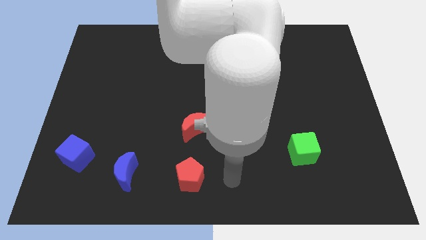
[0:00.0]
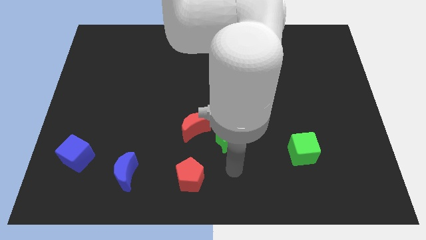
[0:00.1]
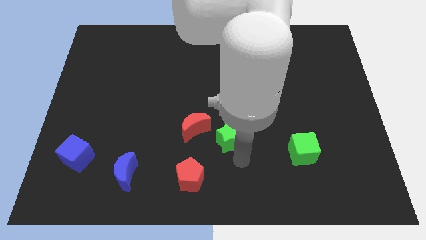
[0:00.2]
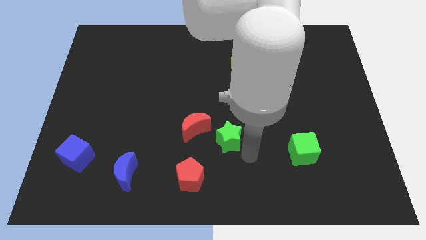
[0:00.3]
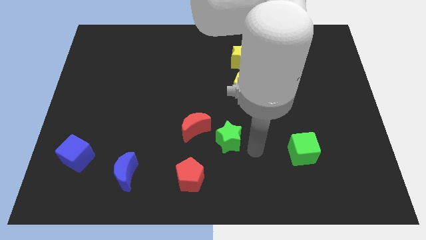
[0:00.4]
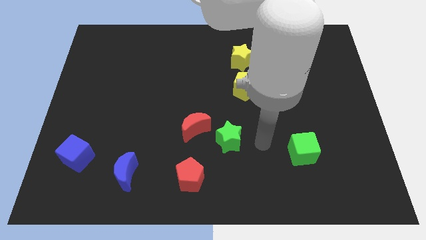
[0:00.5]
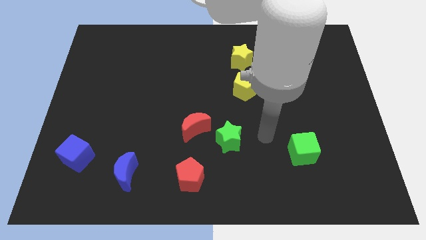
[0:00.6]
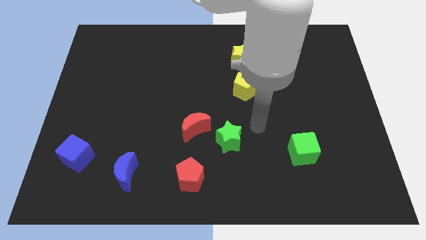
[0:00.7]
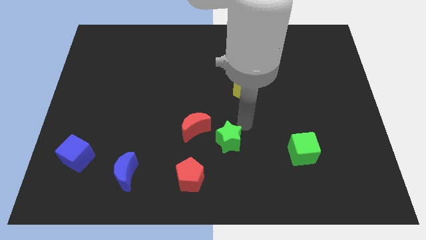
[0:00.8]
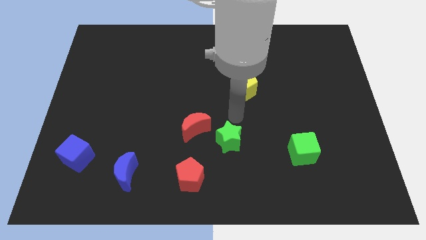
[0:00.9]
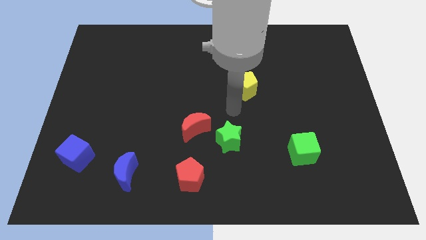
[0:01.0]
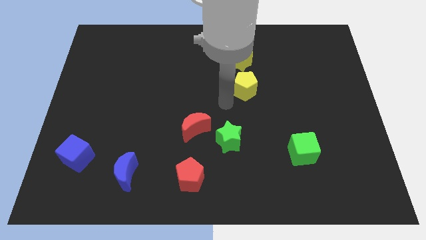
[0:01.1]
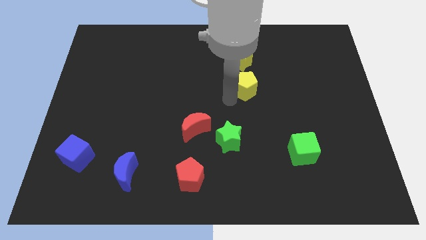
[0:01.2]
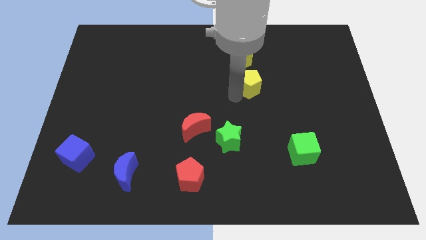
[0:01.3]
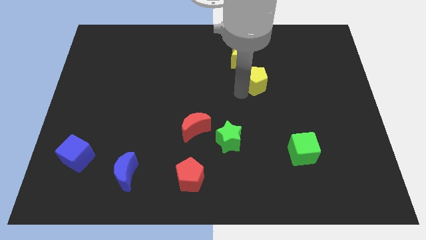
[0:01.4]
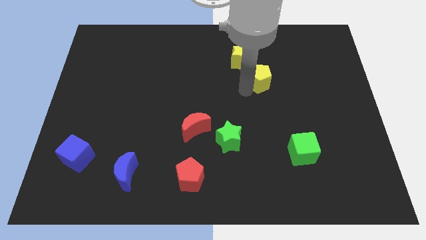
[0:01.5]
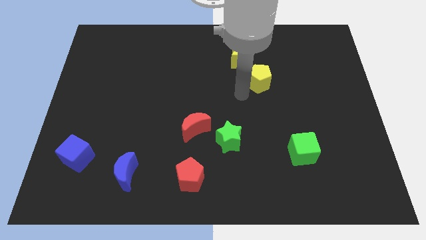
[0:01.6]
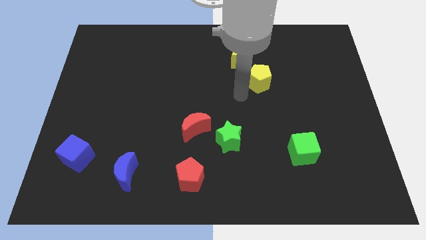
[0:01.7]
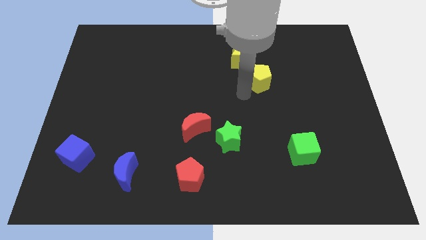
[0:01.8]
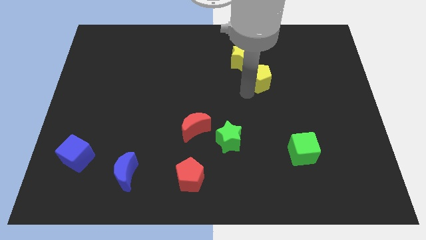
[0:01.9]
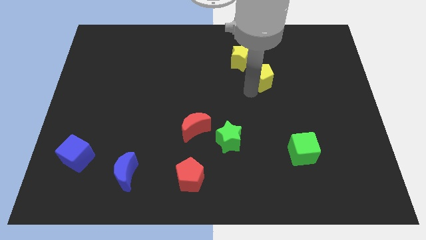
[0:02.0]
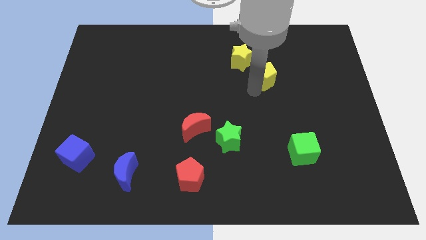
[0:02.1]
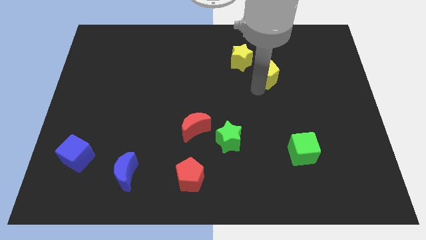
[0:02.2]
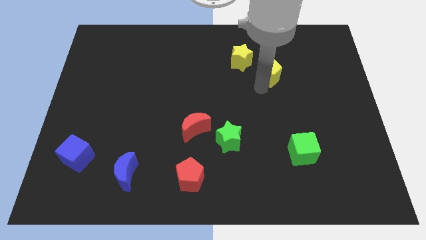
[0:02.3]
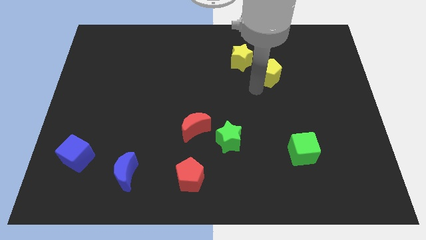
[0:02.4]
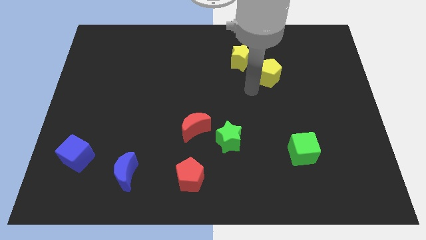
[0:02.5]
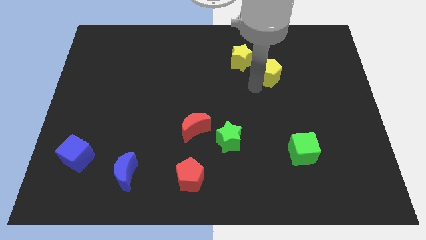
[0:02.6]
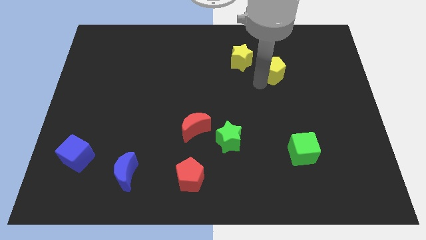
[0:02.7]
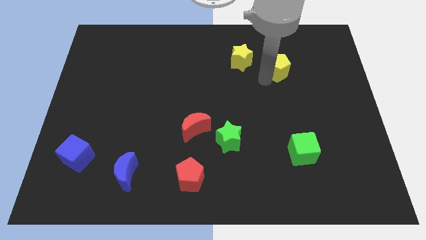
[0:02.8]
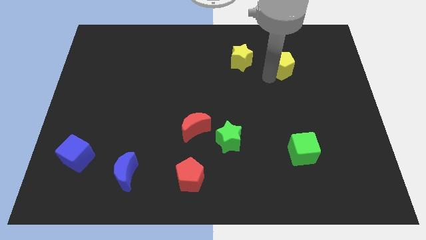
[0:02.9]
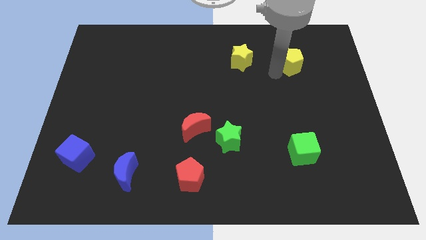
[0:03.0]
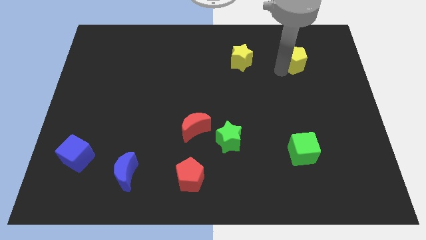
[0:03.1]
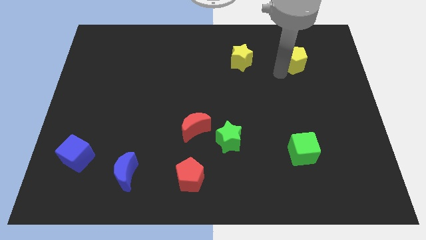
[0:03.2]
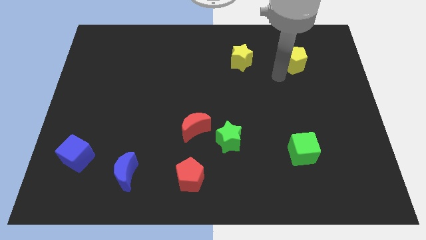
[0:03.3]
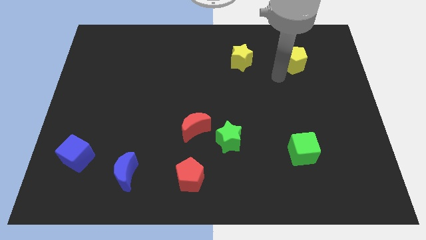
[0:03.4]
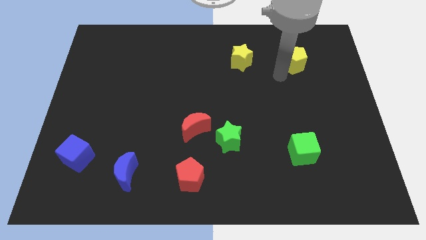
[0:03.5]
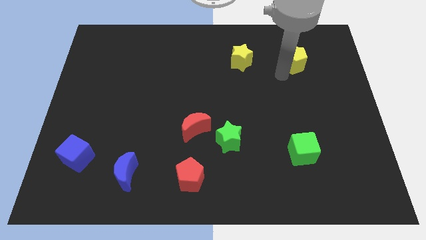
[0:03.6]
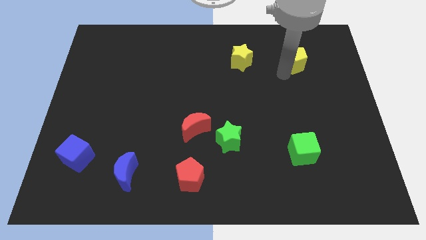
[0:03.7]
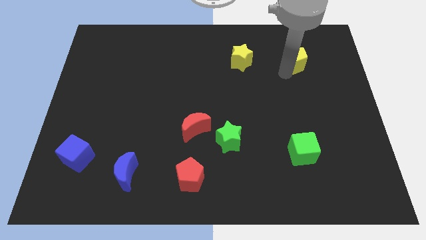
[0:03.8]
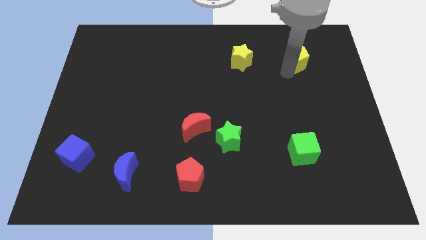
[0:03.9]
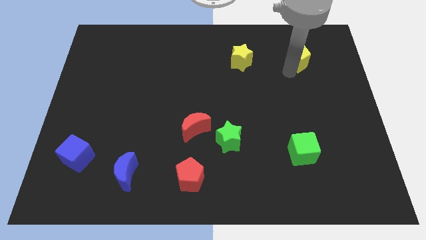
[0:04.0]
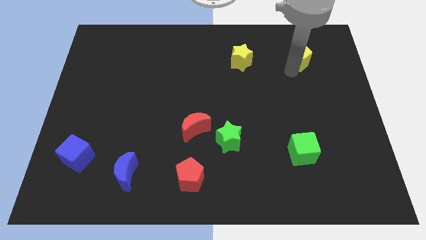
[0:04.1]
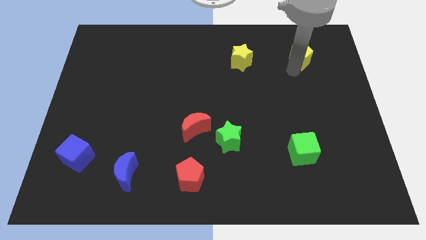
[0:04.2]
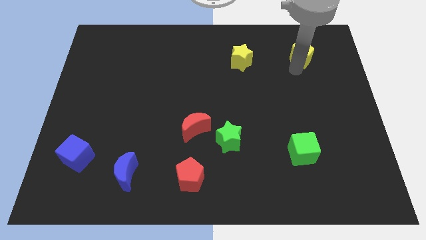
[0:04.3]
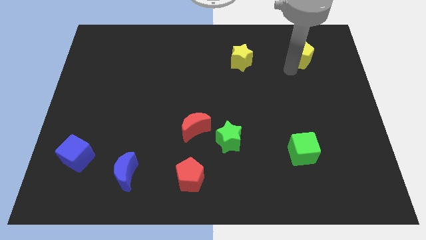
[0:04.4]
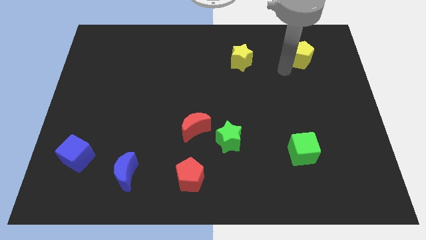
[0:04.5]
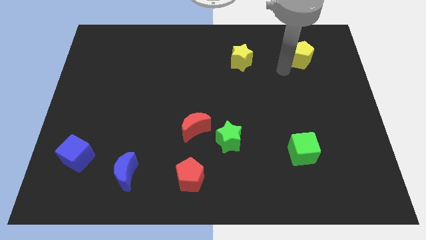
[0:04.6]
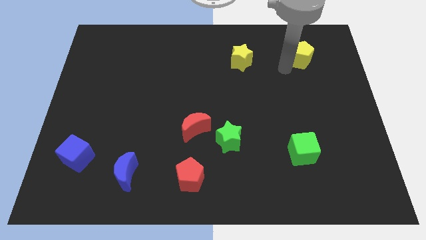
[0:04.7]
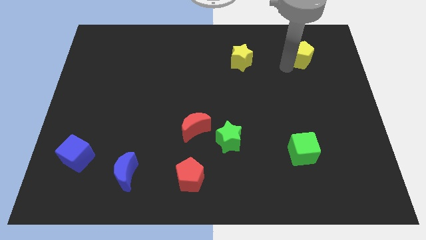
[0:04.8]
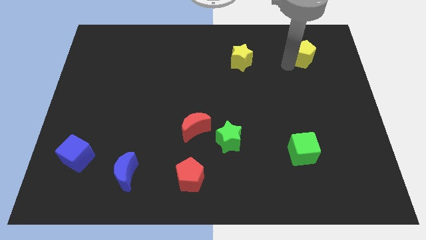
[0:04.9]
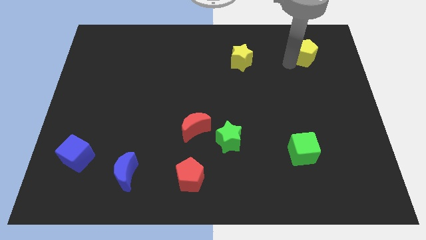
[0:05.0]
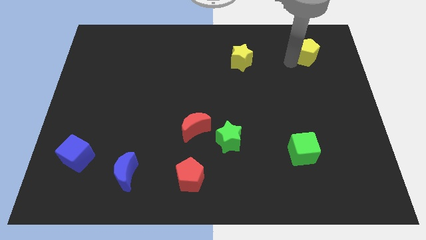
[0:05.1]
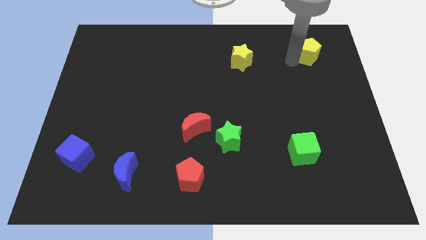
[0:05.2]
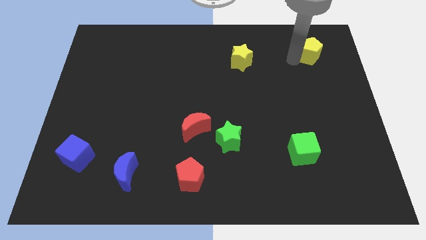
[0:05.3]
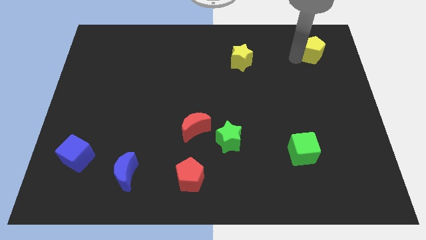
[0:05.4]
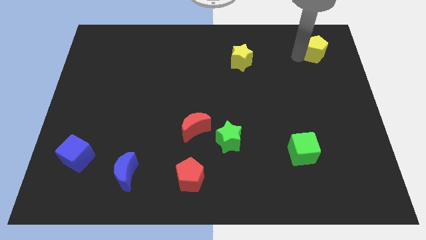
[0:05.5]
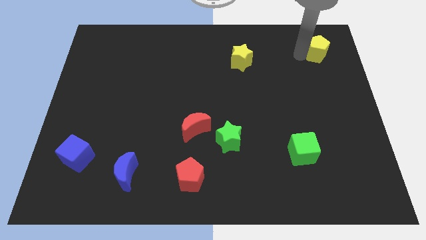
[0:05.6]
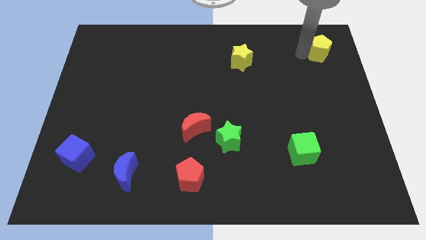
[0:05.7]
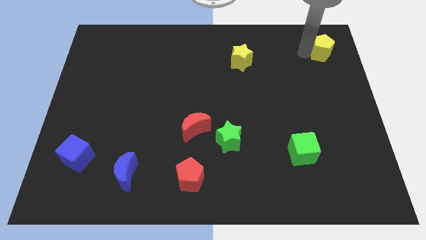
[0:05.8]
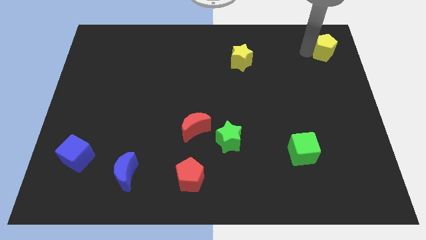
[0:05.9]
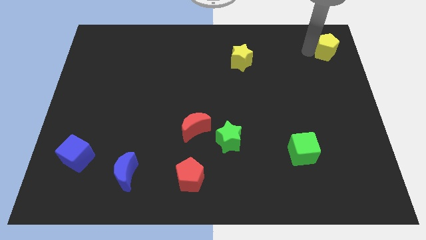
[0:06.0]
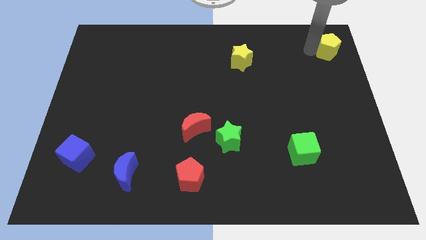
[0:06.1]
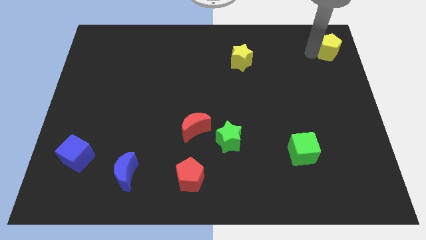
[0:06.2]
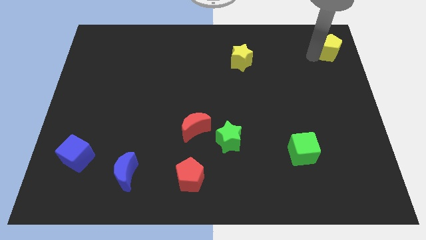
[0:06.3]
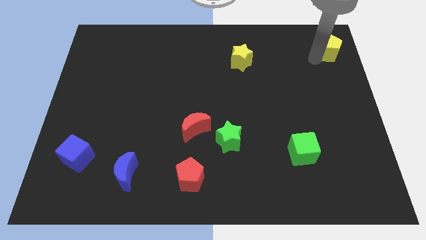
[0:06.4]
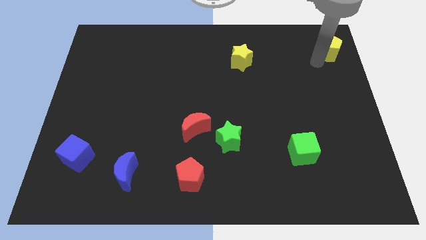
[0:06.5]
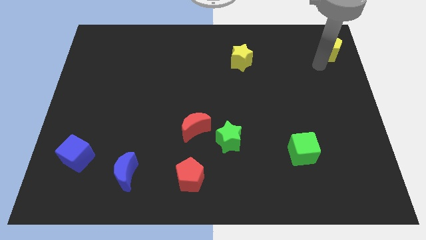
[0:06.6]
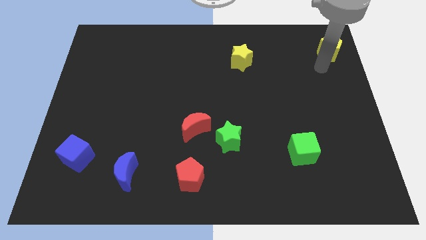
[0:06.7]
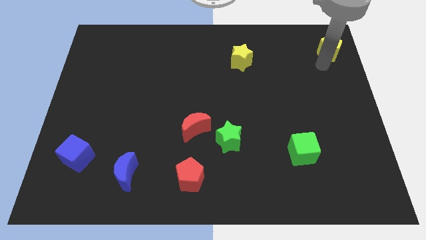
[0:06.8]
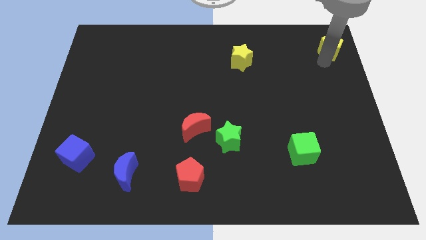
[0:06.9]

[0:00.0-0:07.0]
push the yellow pentagon to the top right corner

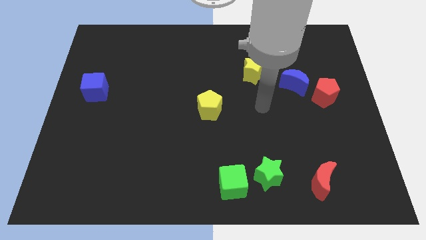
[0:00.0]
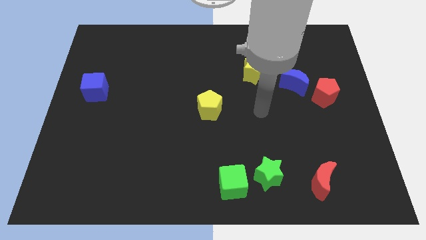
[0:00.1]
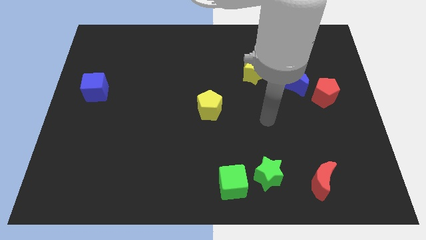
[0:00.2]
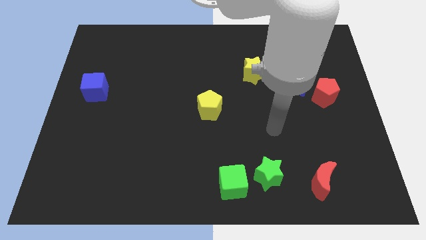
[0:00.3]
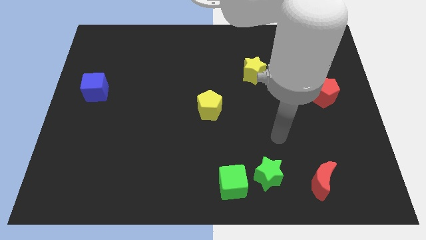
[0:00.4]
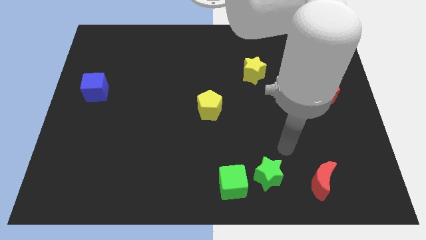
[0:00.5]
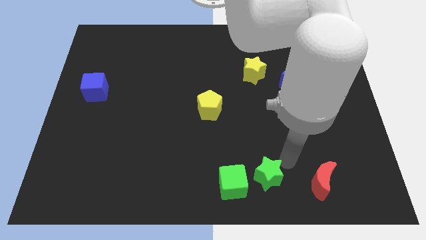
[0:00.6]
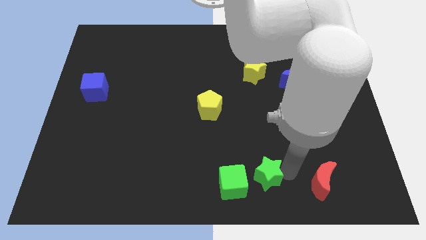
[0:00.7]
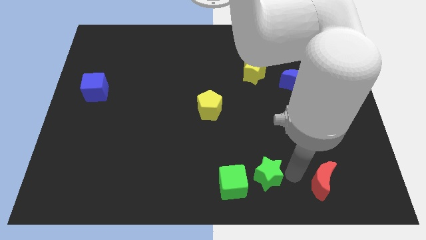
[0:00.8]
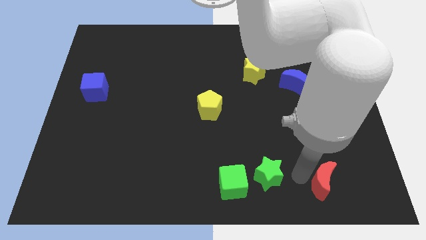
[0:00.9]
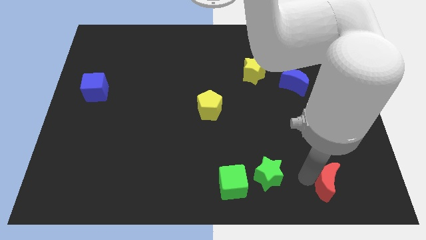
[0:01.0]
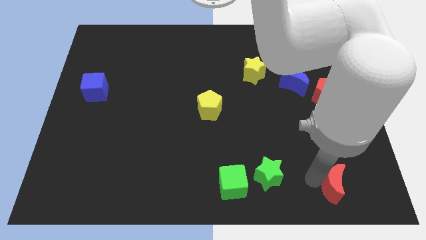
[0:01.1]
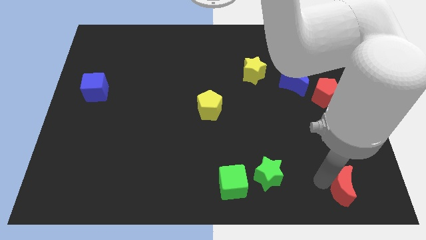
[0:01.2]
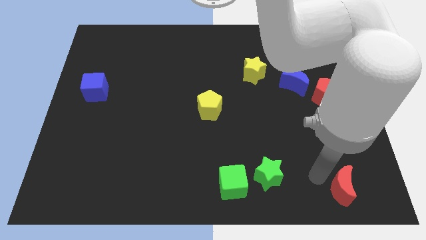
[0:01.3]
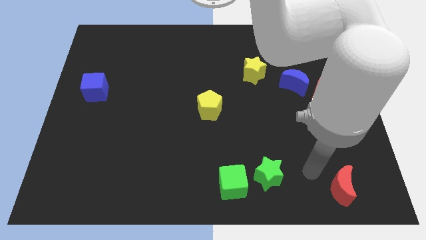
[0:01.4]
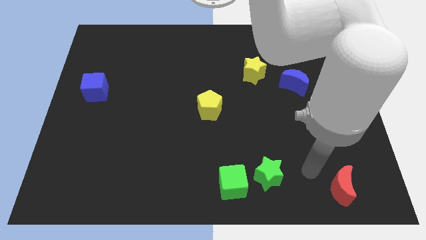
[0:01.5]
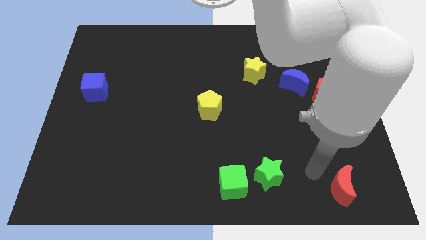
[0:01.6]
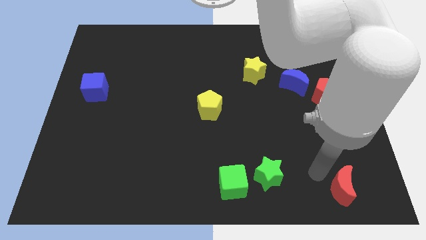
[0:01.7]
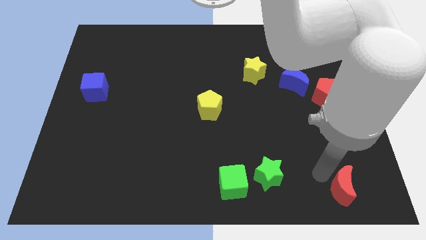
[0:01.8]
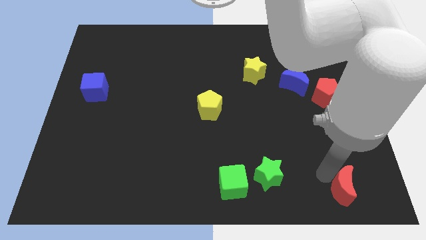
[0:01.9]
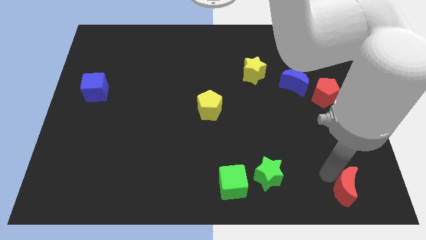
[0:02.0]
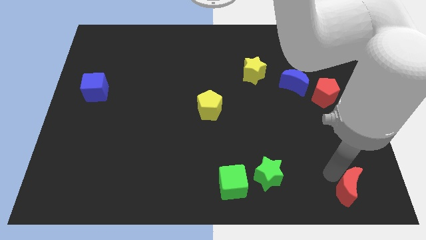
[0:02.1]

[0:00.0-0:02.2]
put the red moon to the lower right corner
